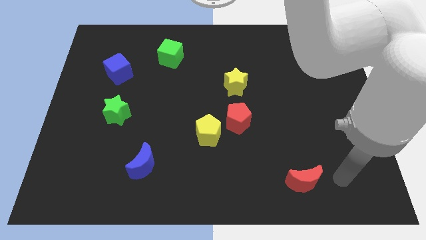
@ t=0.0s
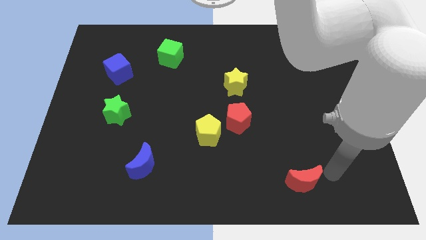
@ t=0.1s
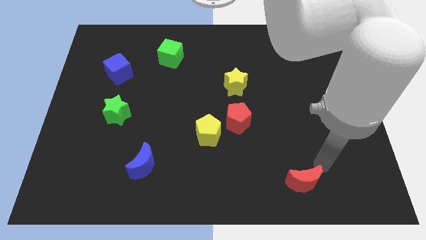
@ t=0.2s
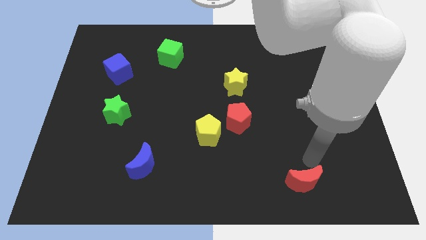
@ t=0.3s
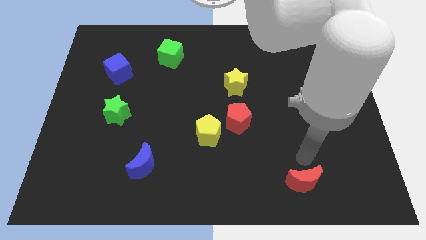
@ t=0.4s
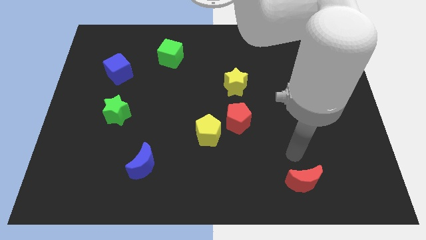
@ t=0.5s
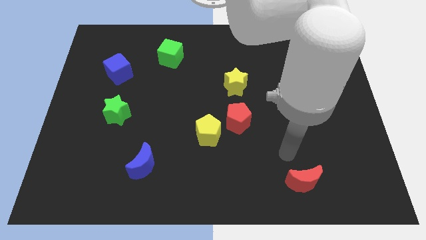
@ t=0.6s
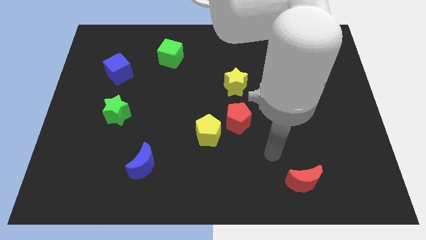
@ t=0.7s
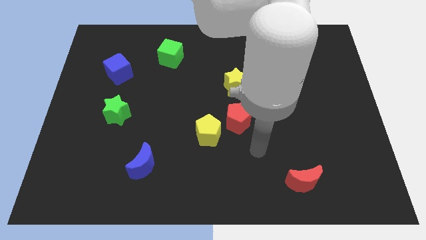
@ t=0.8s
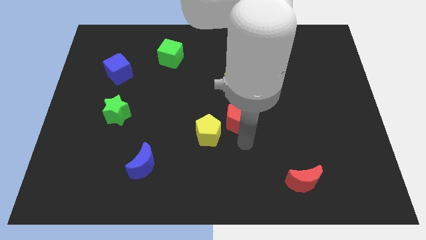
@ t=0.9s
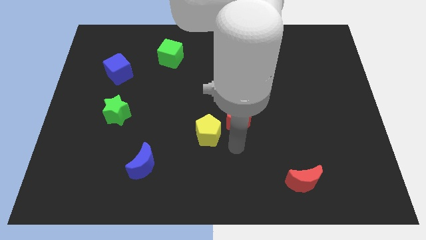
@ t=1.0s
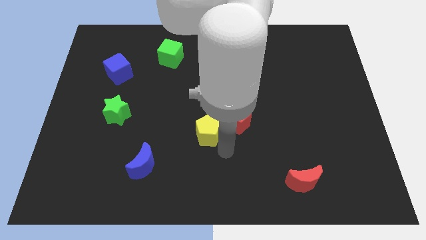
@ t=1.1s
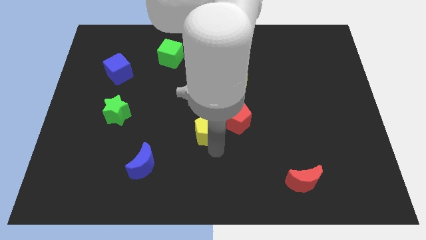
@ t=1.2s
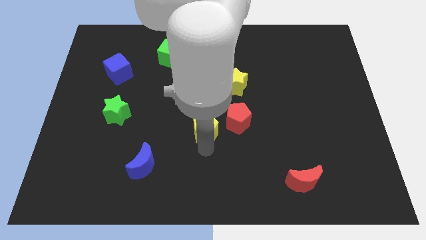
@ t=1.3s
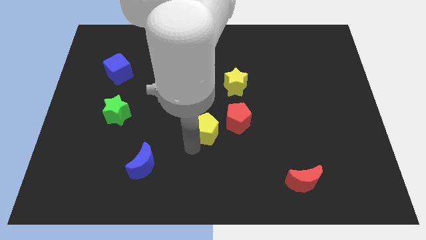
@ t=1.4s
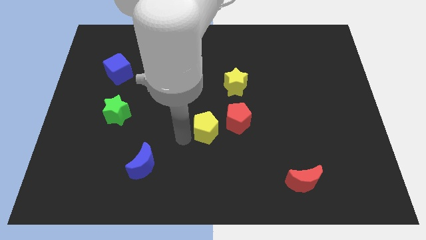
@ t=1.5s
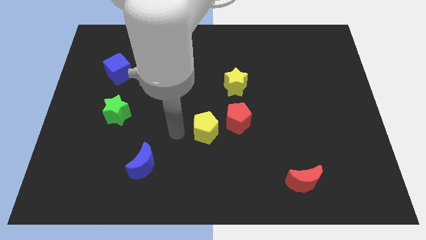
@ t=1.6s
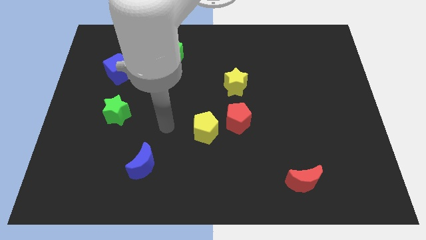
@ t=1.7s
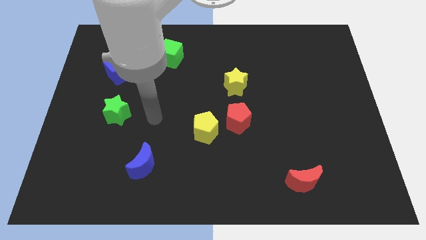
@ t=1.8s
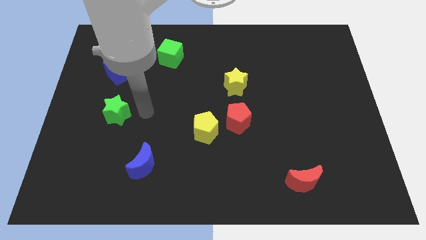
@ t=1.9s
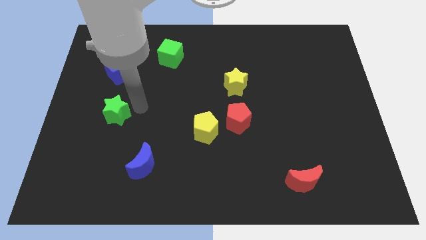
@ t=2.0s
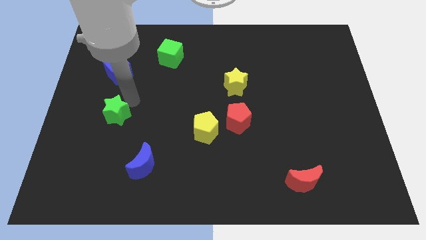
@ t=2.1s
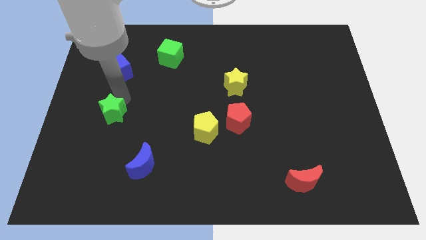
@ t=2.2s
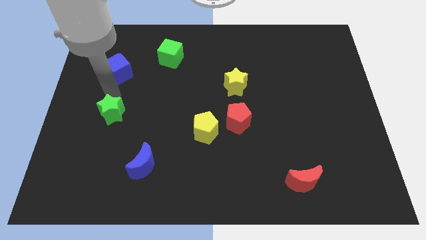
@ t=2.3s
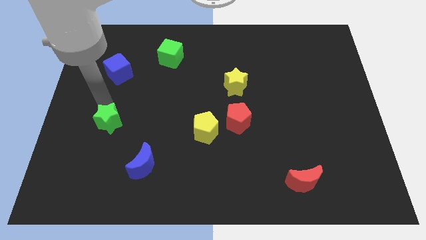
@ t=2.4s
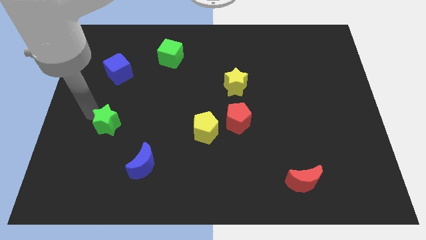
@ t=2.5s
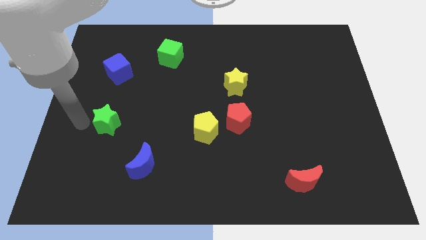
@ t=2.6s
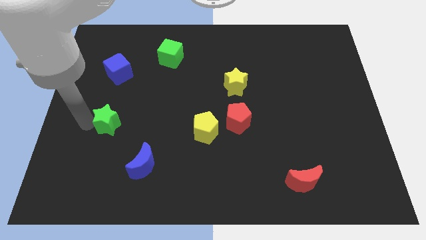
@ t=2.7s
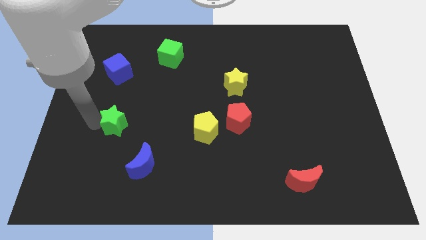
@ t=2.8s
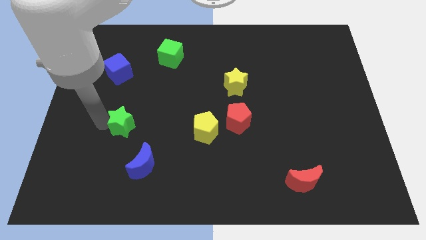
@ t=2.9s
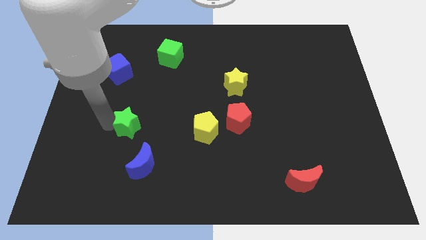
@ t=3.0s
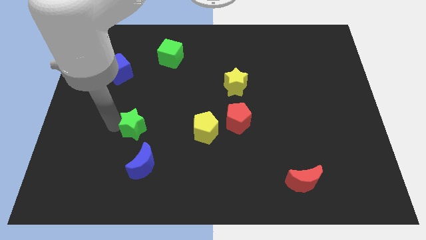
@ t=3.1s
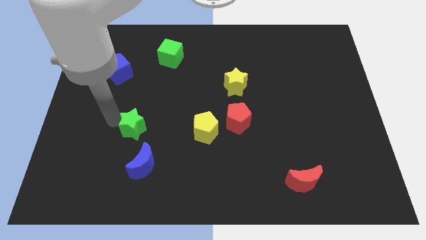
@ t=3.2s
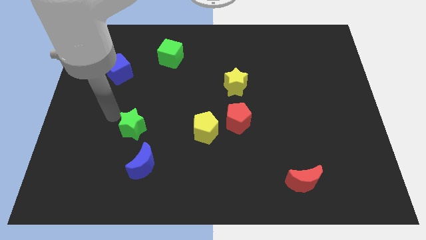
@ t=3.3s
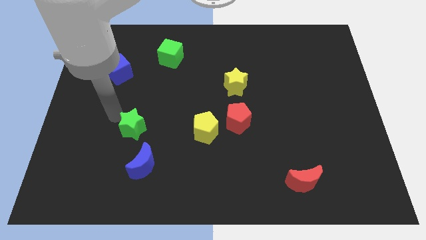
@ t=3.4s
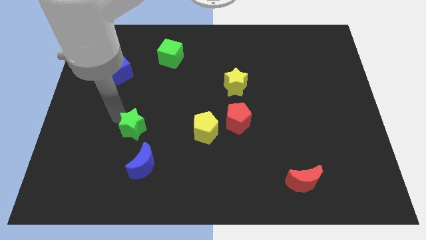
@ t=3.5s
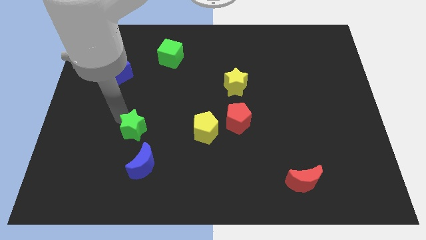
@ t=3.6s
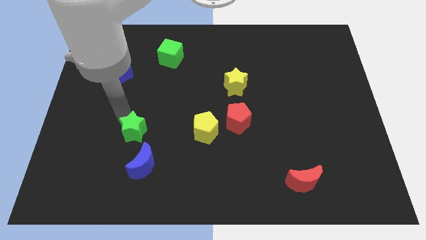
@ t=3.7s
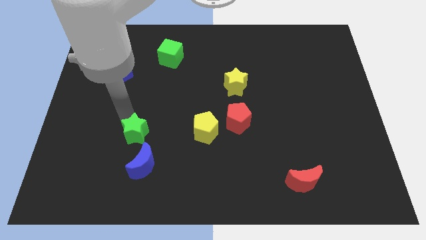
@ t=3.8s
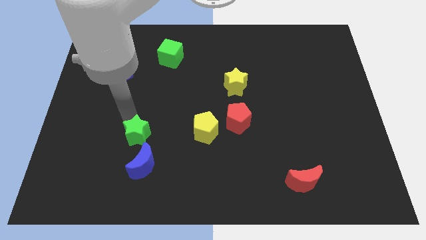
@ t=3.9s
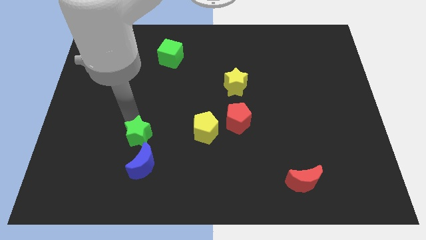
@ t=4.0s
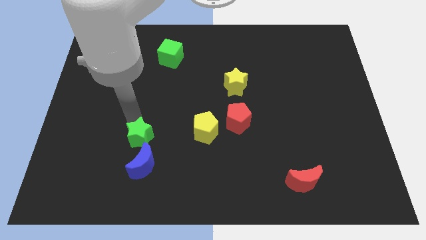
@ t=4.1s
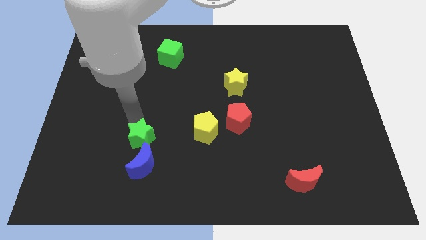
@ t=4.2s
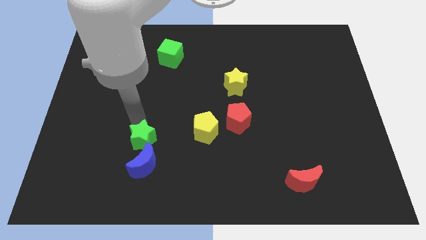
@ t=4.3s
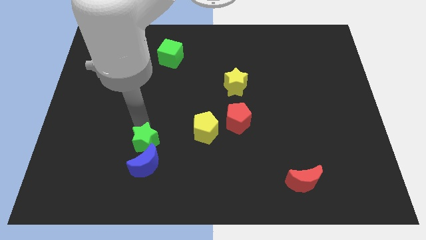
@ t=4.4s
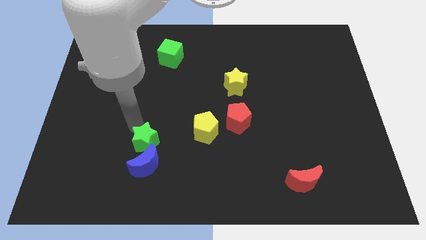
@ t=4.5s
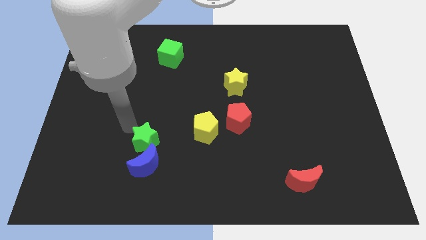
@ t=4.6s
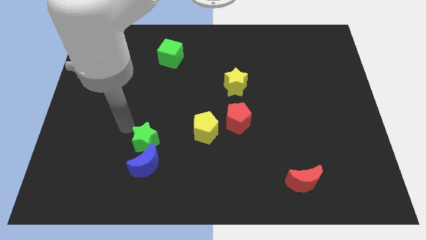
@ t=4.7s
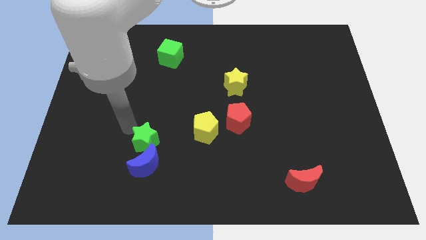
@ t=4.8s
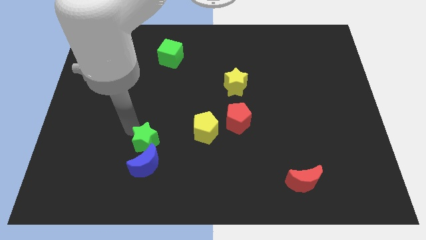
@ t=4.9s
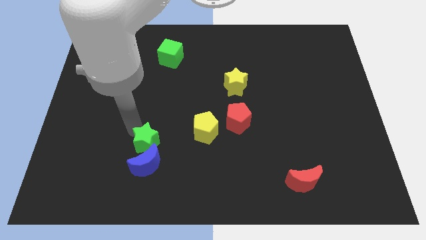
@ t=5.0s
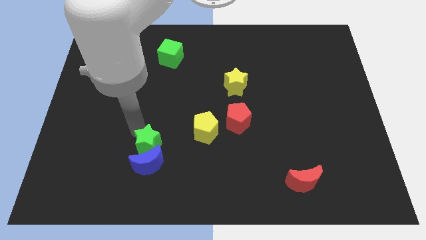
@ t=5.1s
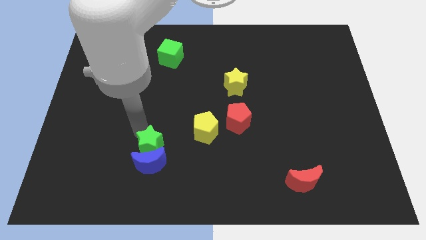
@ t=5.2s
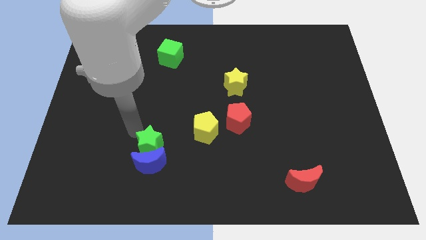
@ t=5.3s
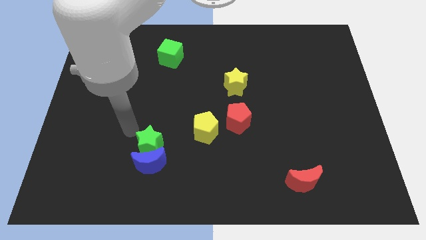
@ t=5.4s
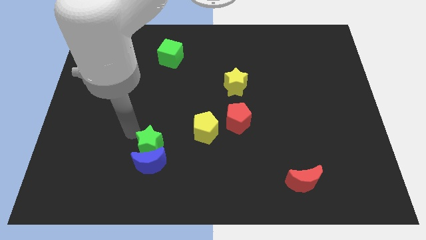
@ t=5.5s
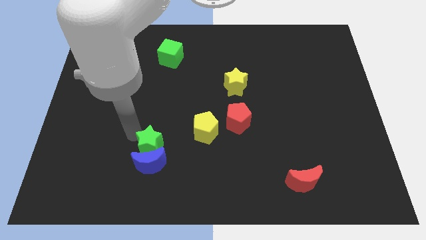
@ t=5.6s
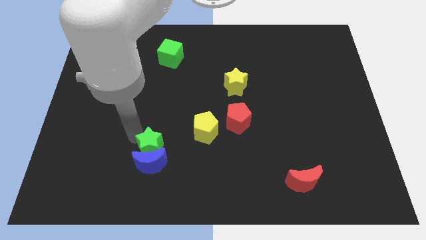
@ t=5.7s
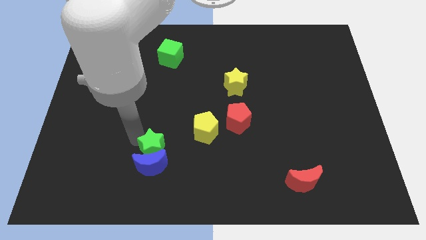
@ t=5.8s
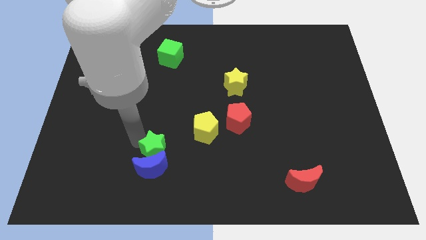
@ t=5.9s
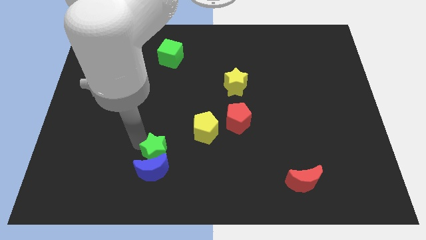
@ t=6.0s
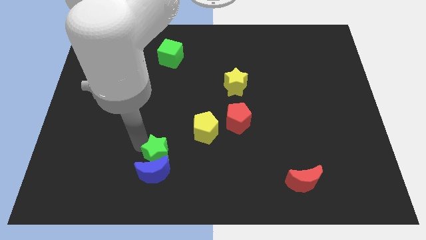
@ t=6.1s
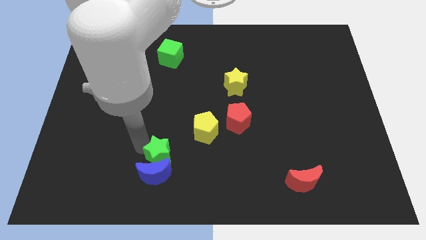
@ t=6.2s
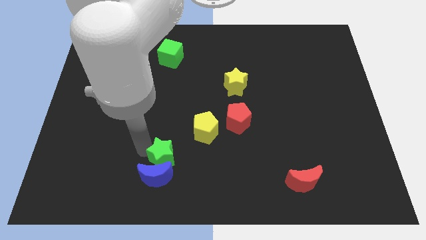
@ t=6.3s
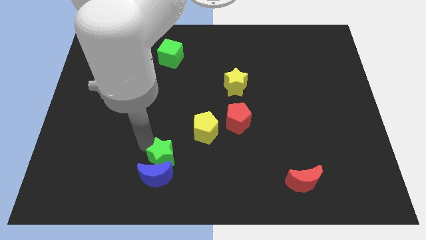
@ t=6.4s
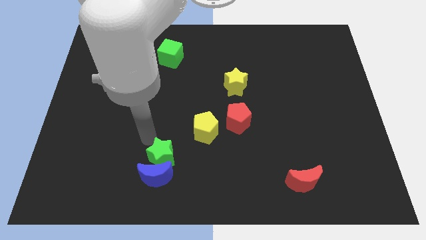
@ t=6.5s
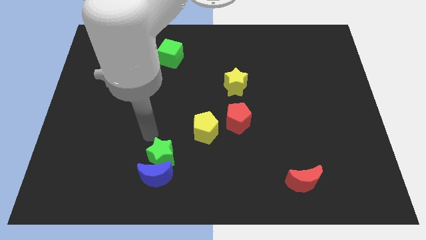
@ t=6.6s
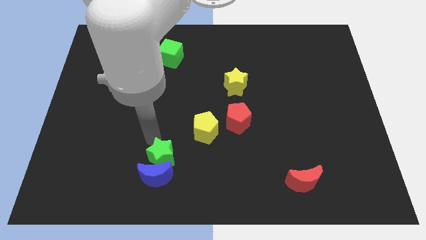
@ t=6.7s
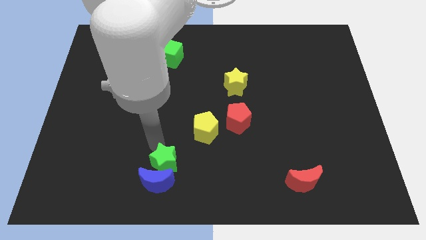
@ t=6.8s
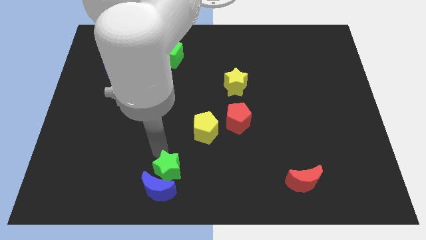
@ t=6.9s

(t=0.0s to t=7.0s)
slide the green star to the bottom side
